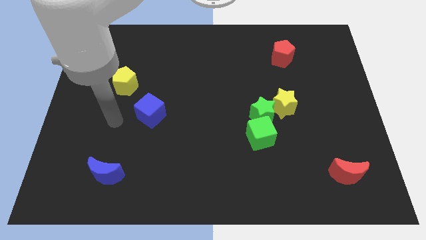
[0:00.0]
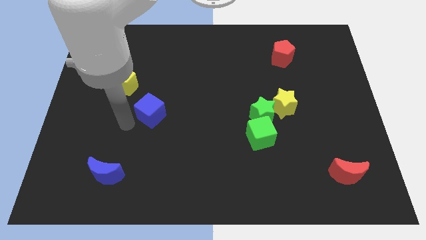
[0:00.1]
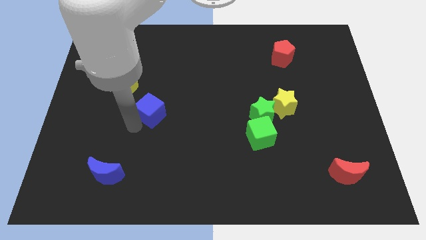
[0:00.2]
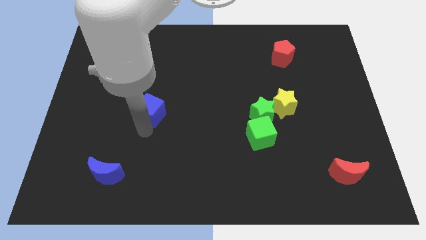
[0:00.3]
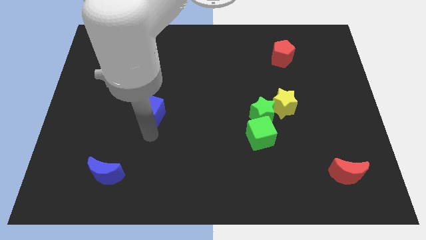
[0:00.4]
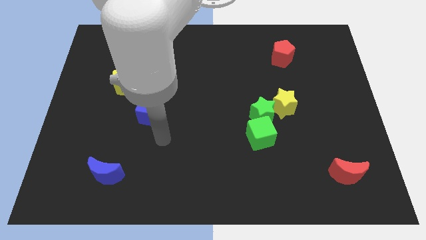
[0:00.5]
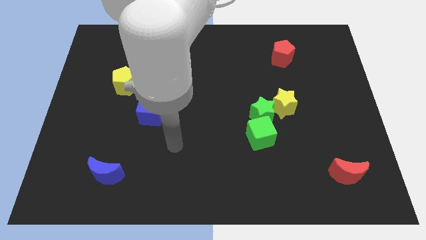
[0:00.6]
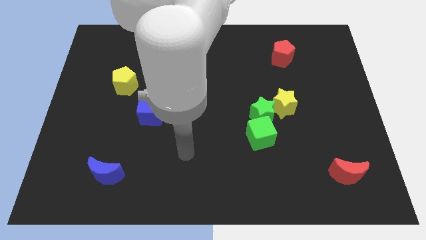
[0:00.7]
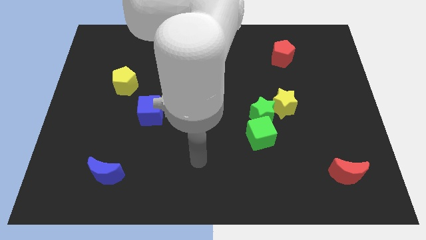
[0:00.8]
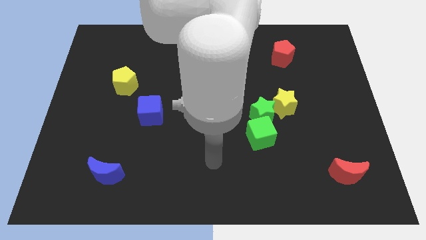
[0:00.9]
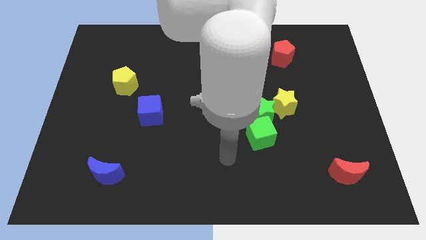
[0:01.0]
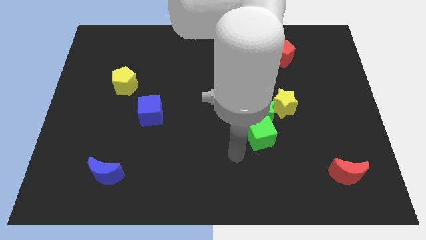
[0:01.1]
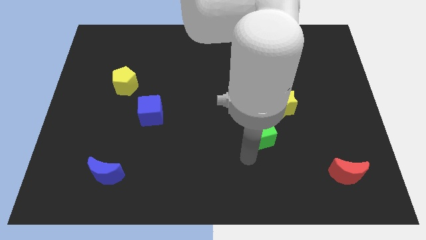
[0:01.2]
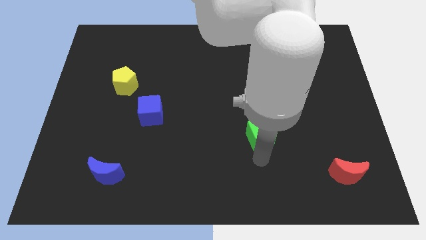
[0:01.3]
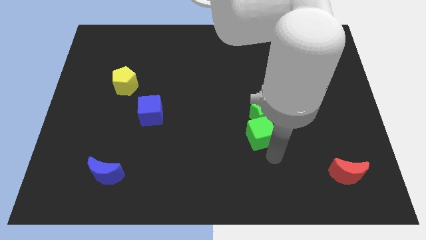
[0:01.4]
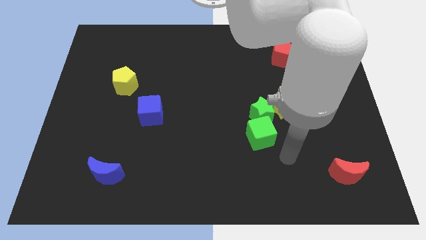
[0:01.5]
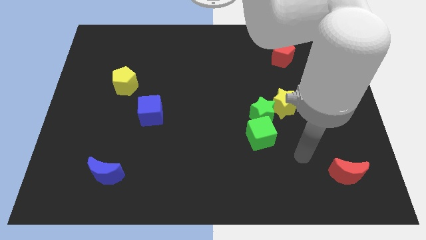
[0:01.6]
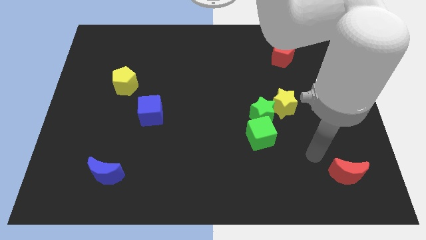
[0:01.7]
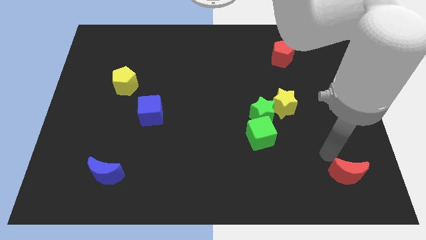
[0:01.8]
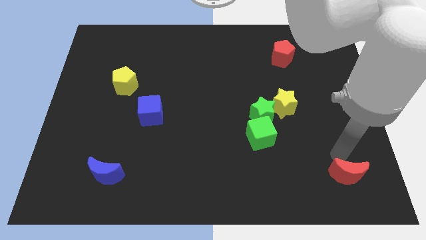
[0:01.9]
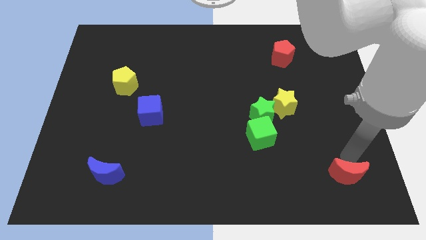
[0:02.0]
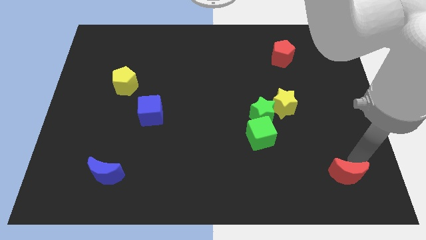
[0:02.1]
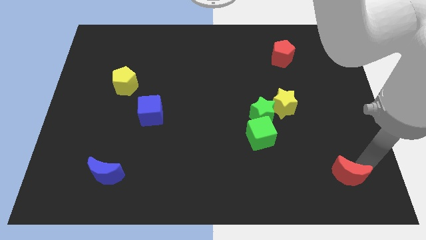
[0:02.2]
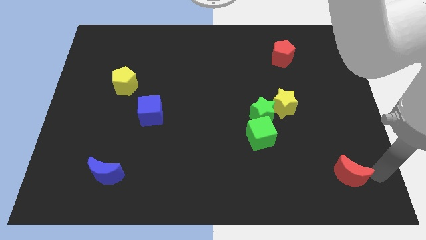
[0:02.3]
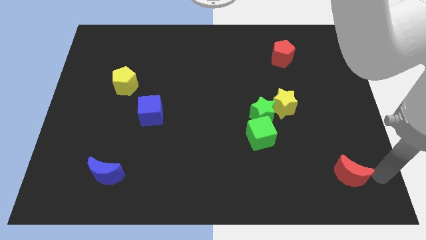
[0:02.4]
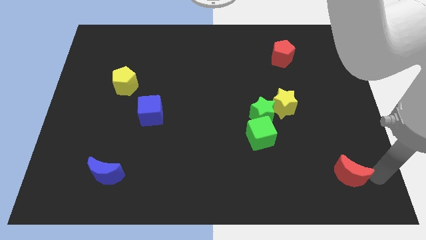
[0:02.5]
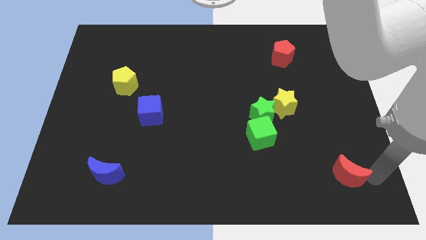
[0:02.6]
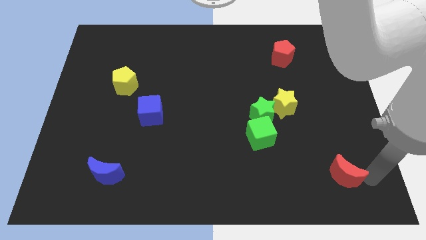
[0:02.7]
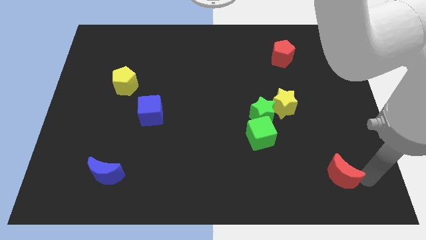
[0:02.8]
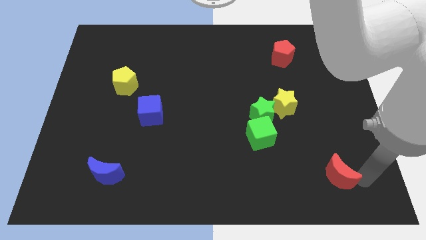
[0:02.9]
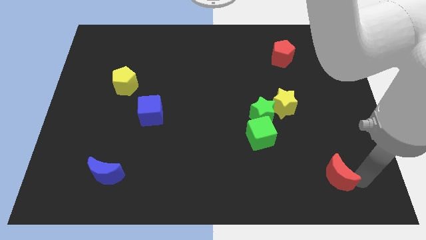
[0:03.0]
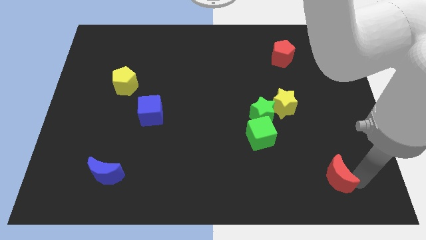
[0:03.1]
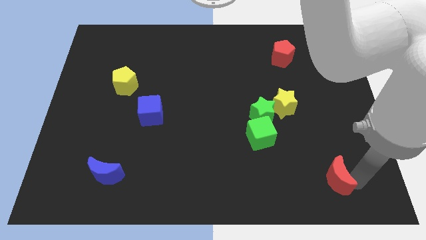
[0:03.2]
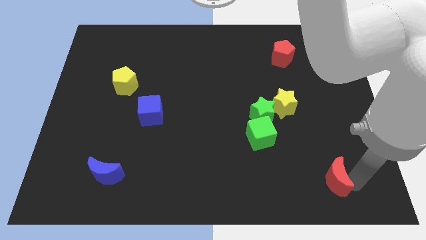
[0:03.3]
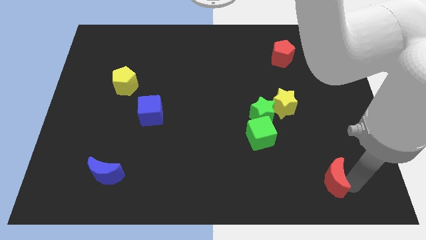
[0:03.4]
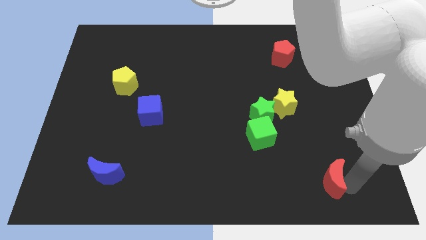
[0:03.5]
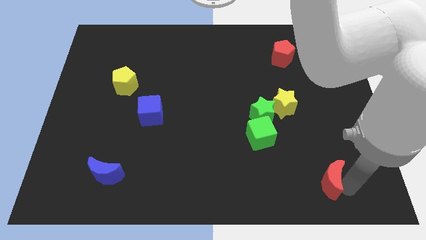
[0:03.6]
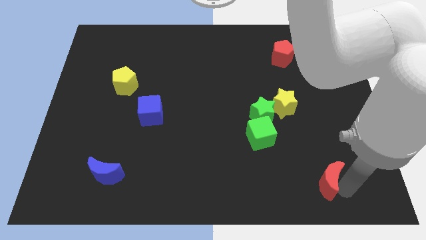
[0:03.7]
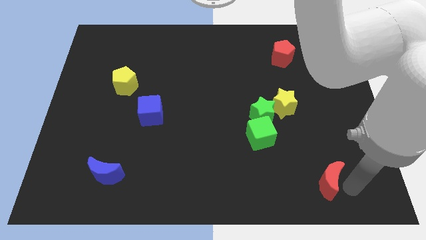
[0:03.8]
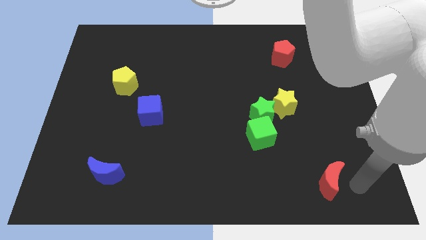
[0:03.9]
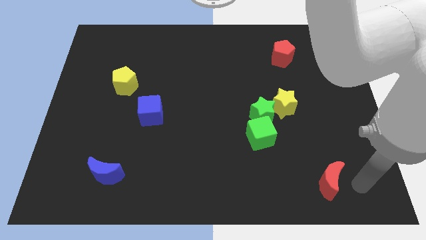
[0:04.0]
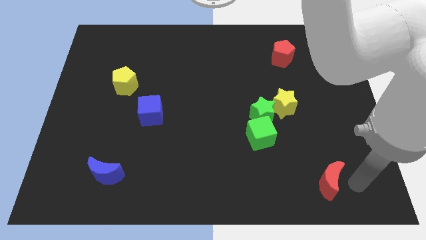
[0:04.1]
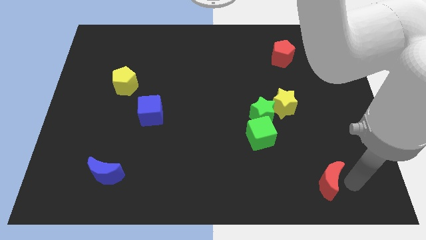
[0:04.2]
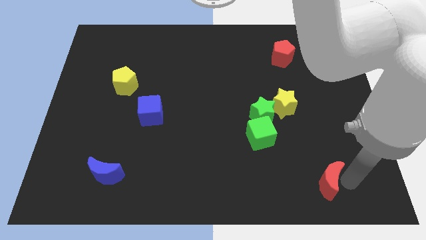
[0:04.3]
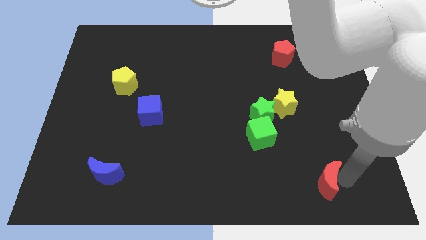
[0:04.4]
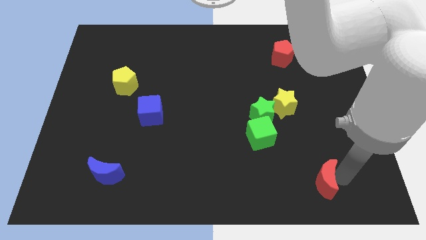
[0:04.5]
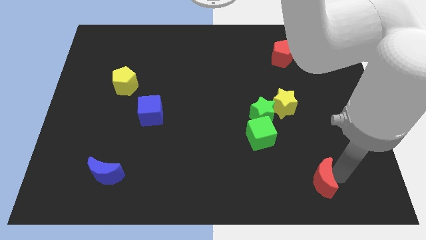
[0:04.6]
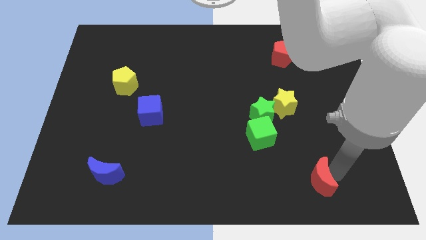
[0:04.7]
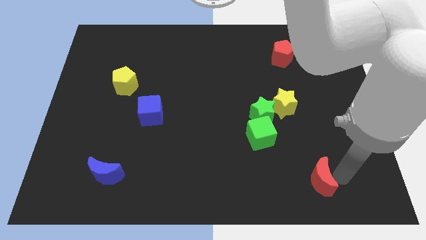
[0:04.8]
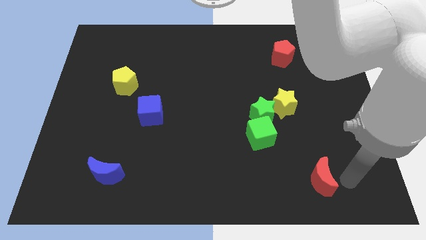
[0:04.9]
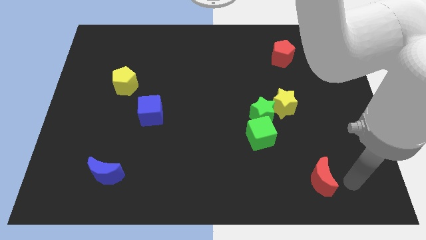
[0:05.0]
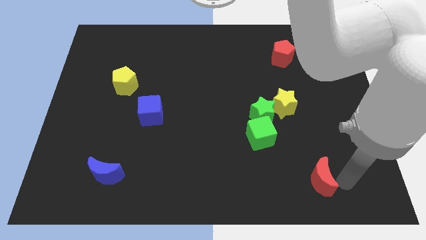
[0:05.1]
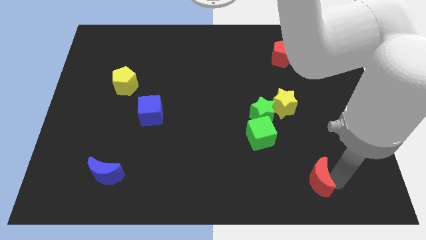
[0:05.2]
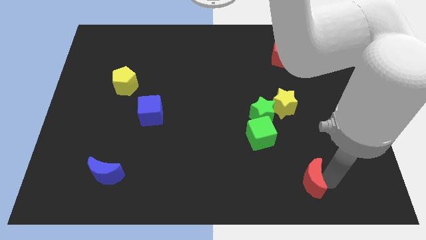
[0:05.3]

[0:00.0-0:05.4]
slide the red moon to the left a little bit

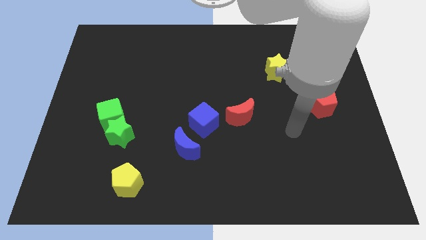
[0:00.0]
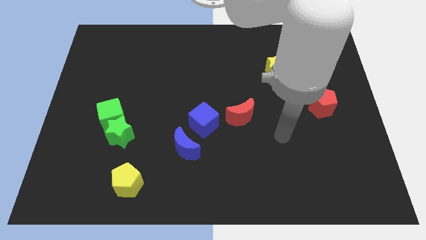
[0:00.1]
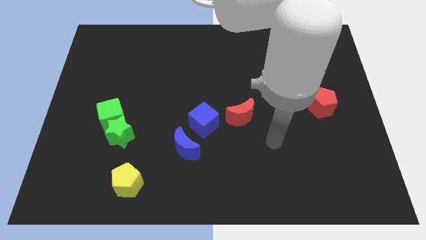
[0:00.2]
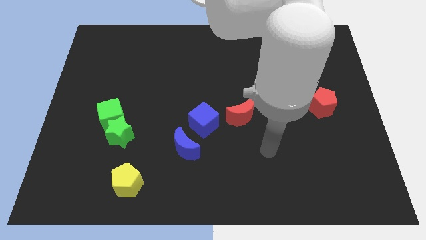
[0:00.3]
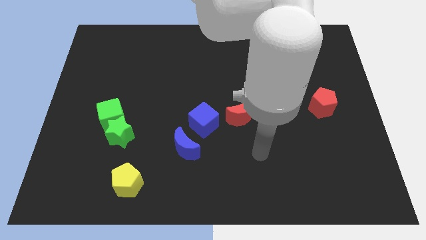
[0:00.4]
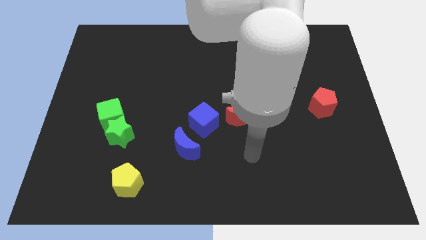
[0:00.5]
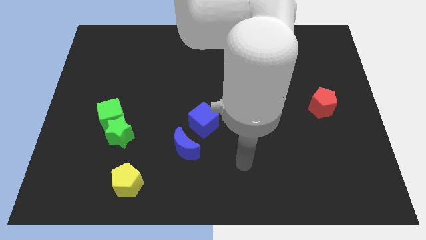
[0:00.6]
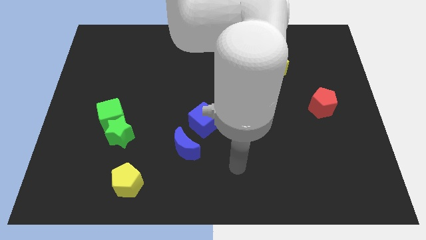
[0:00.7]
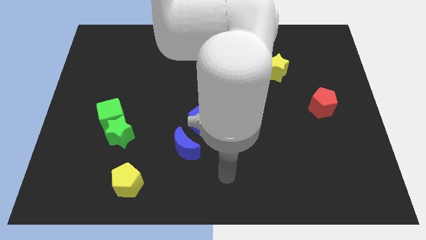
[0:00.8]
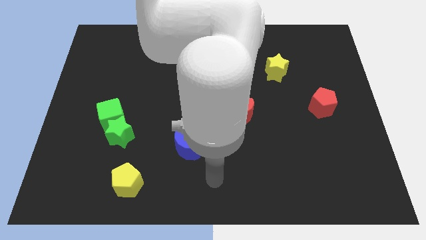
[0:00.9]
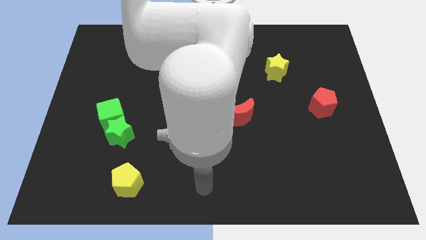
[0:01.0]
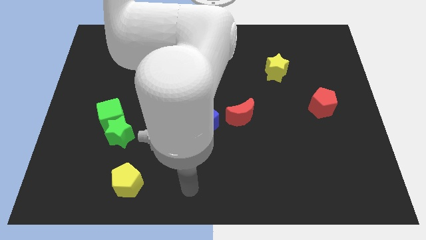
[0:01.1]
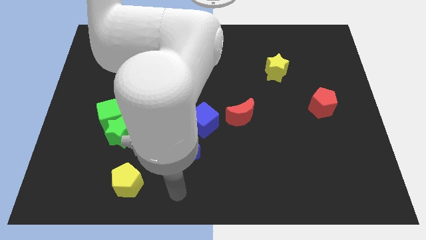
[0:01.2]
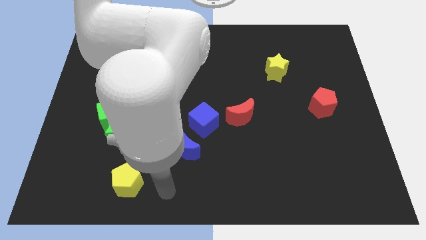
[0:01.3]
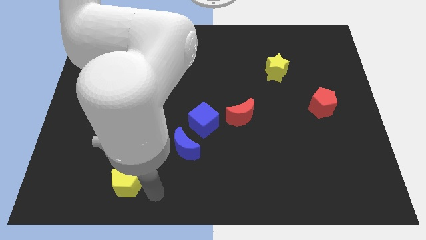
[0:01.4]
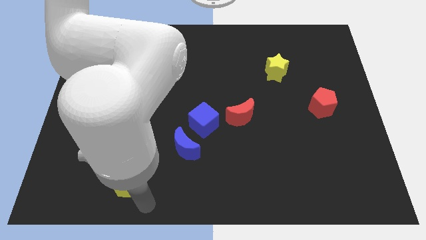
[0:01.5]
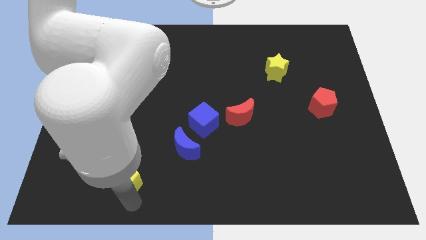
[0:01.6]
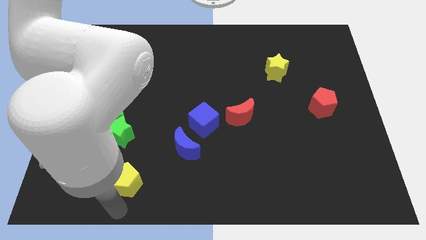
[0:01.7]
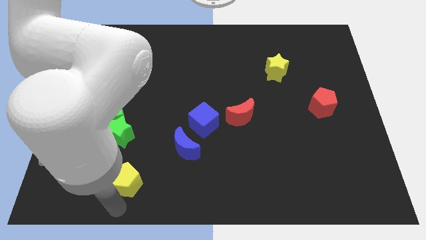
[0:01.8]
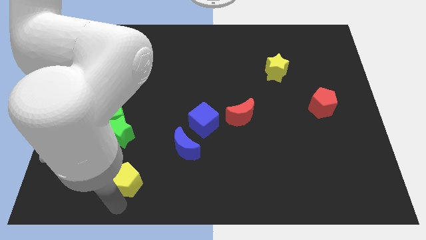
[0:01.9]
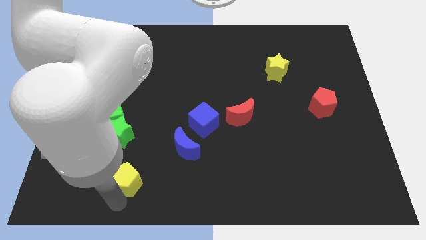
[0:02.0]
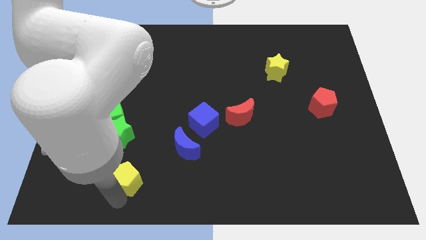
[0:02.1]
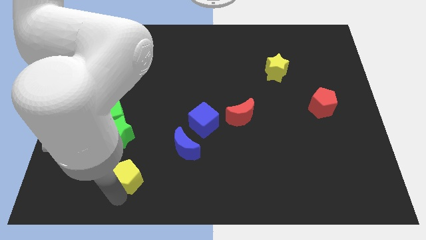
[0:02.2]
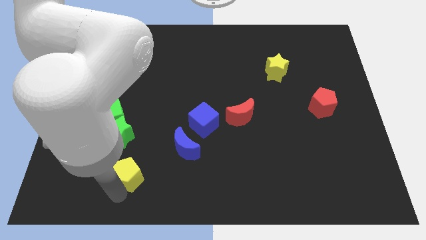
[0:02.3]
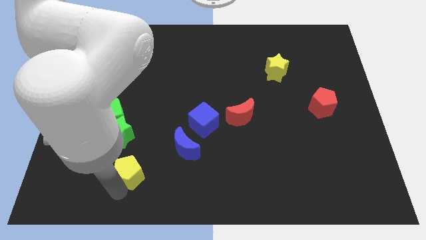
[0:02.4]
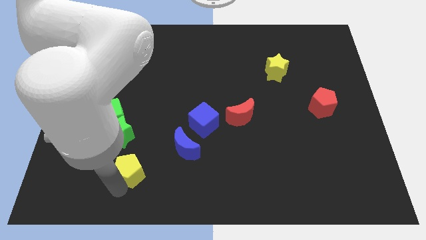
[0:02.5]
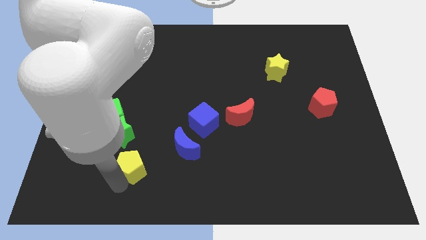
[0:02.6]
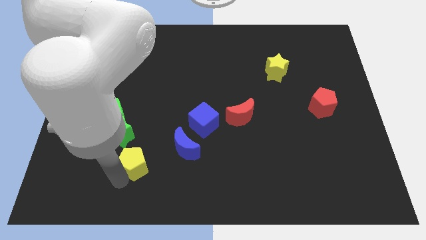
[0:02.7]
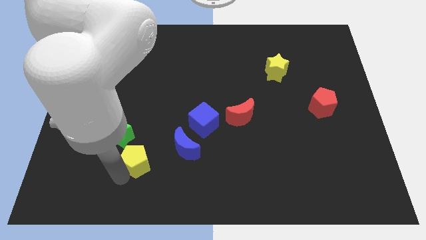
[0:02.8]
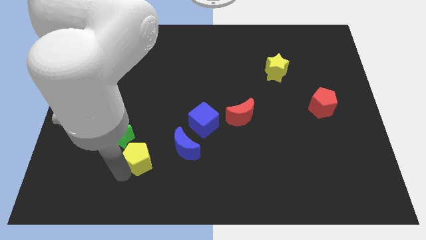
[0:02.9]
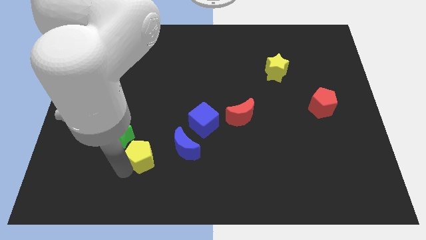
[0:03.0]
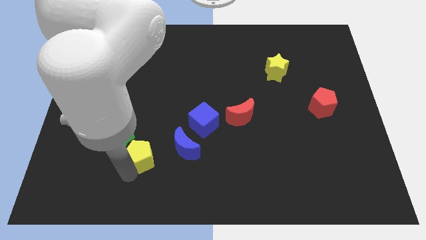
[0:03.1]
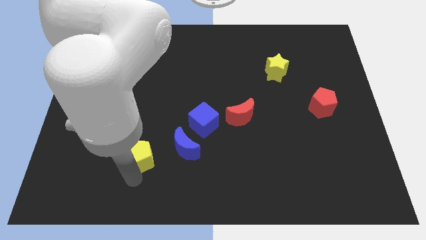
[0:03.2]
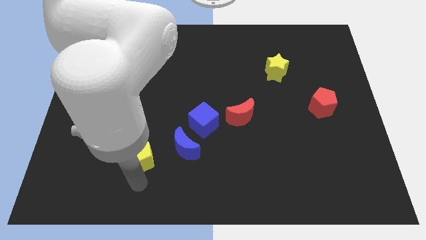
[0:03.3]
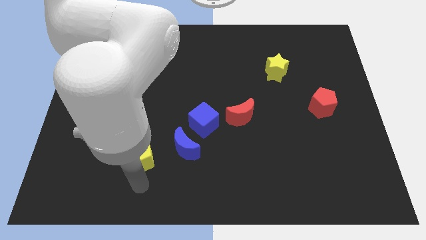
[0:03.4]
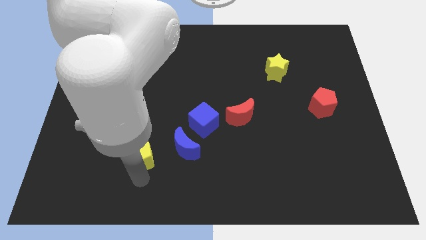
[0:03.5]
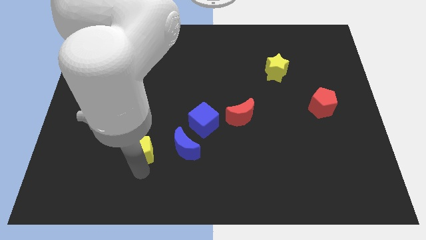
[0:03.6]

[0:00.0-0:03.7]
push the yellow pentagon upwards slightly
